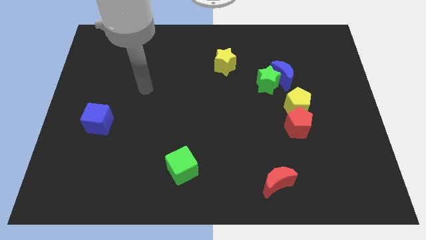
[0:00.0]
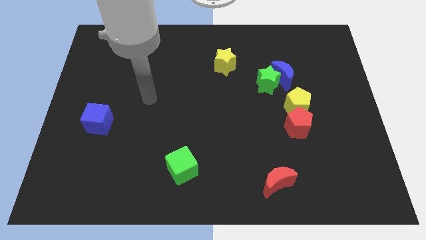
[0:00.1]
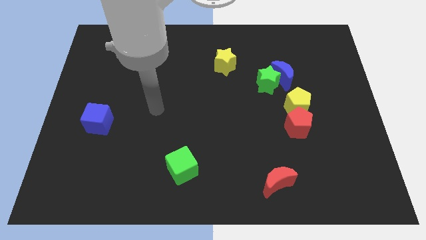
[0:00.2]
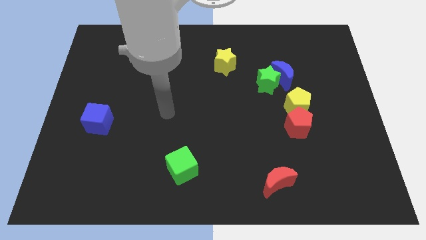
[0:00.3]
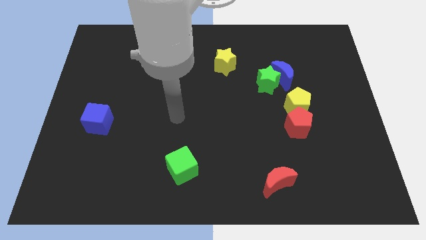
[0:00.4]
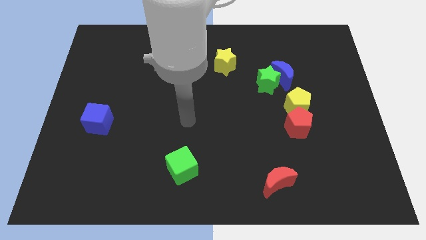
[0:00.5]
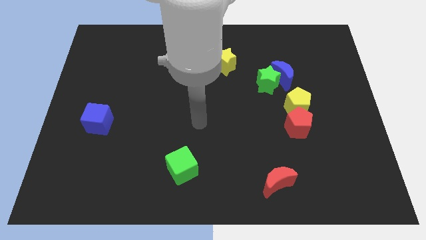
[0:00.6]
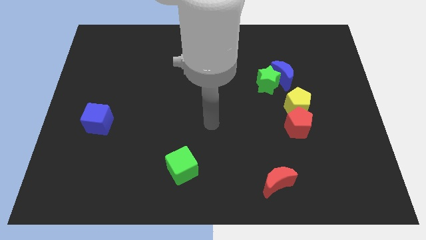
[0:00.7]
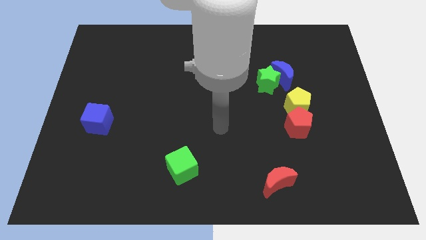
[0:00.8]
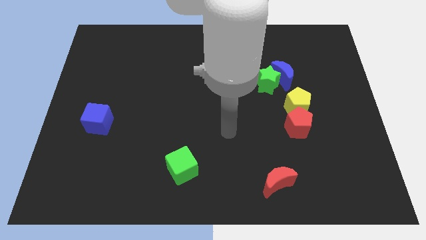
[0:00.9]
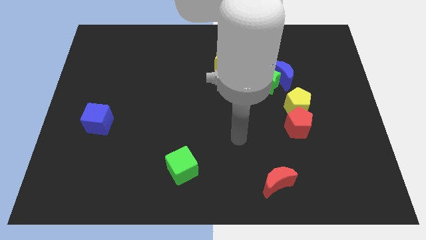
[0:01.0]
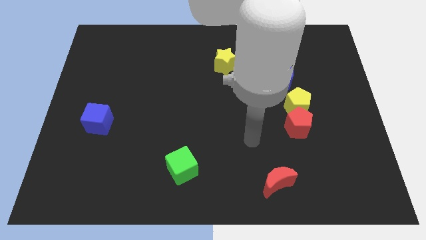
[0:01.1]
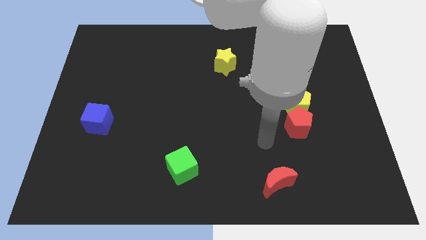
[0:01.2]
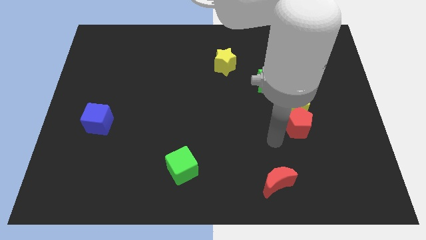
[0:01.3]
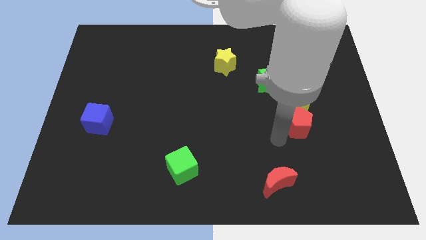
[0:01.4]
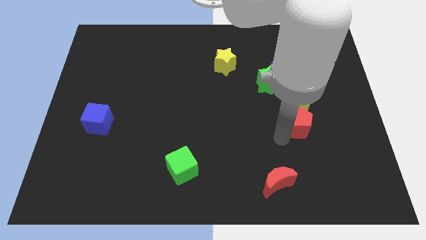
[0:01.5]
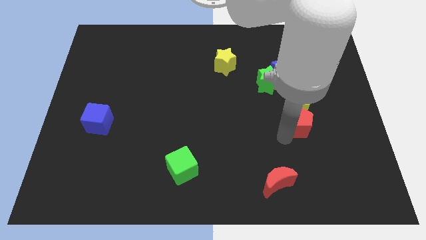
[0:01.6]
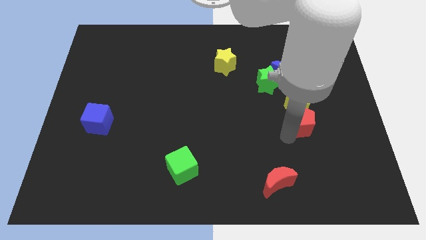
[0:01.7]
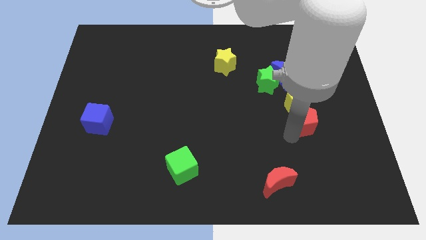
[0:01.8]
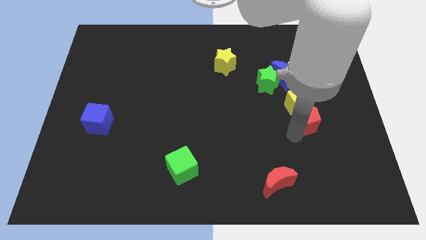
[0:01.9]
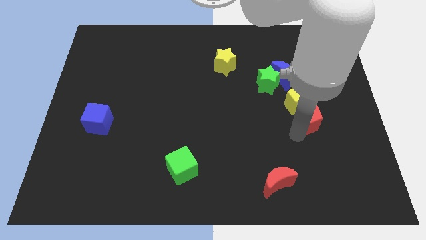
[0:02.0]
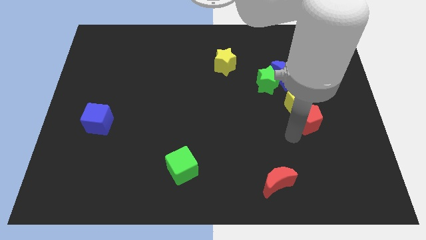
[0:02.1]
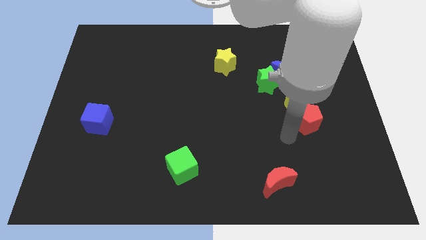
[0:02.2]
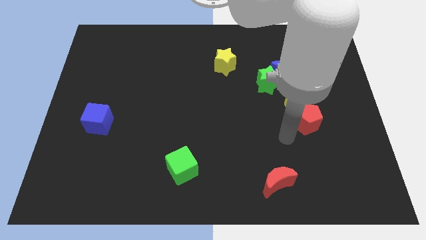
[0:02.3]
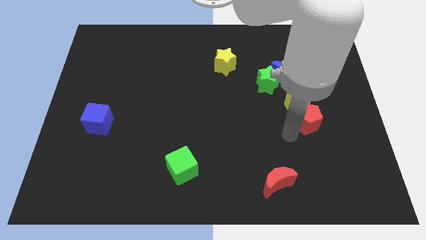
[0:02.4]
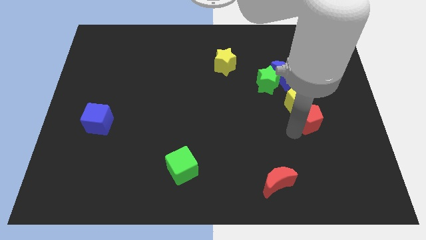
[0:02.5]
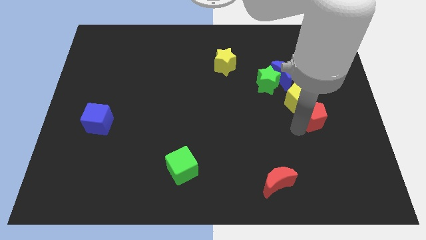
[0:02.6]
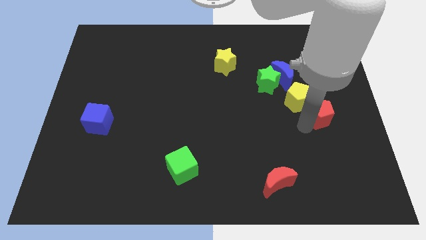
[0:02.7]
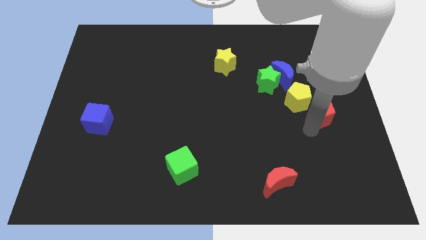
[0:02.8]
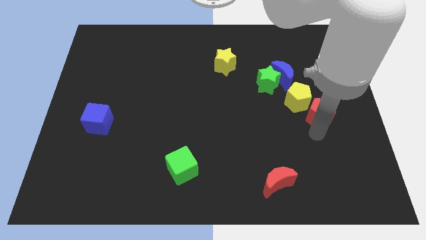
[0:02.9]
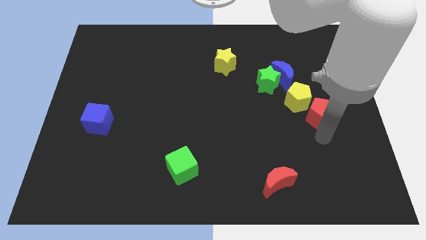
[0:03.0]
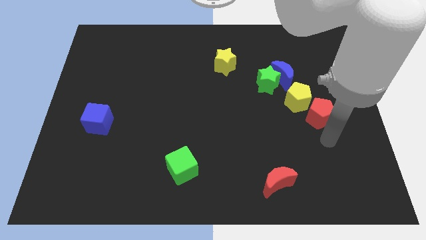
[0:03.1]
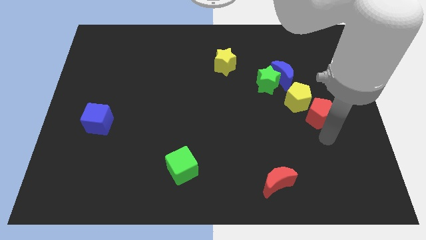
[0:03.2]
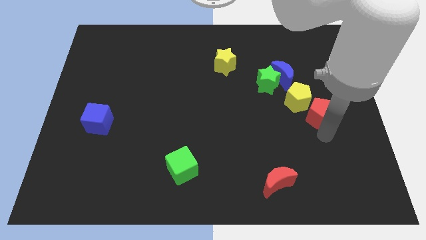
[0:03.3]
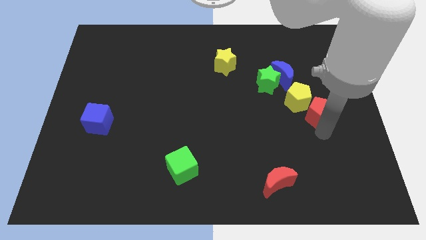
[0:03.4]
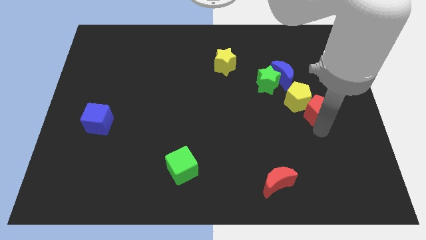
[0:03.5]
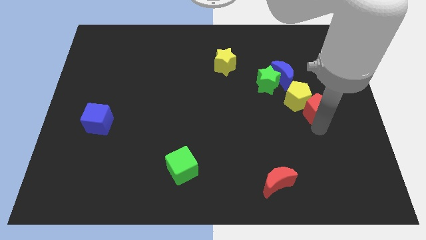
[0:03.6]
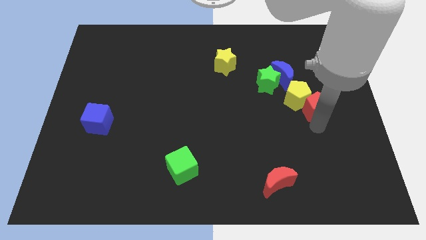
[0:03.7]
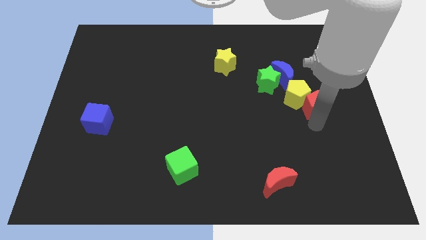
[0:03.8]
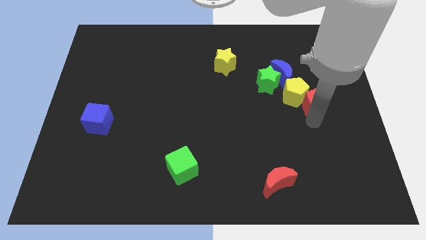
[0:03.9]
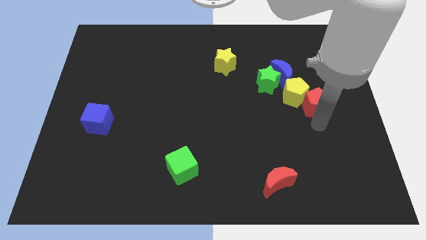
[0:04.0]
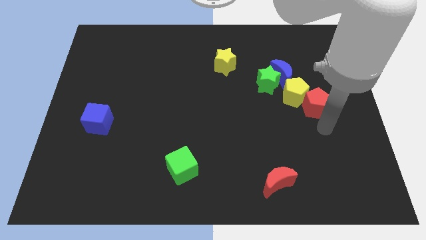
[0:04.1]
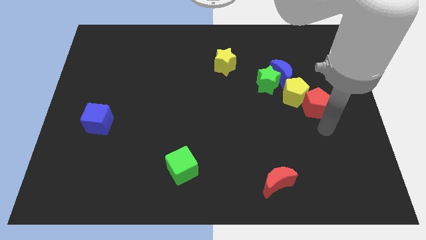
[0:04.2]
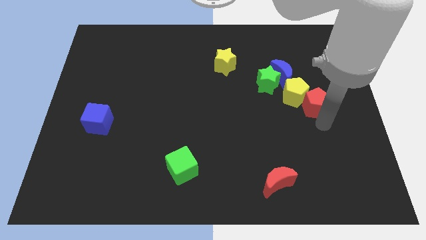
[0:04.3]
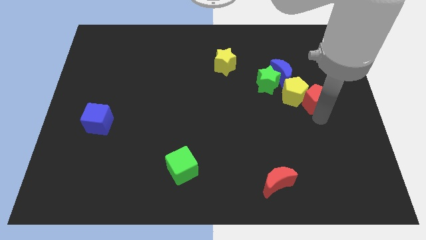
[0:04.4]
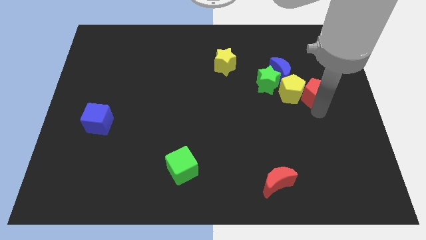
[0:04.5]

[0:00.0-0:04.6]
move the red pentagon slightly up

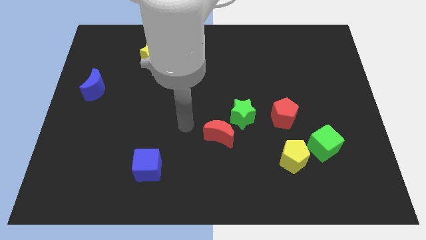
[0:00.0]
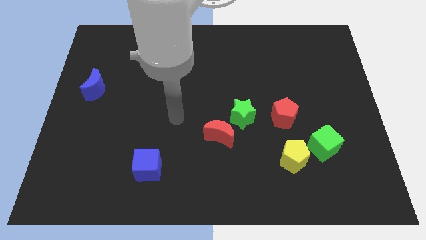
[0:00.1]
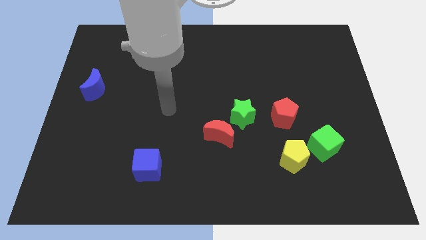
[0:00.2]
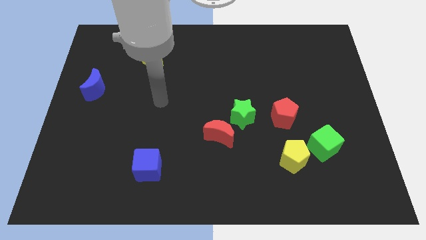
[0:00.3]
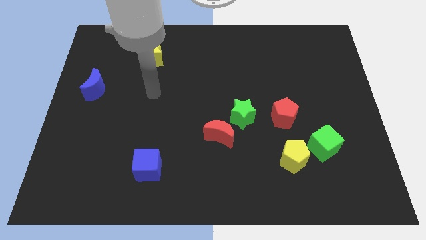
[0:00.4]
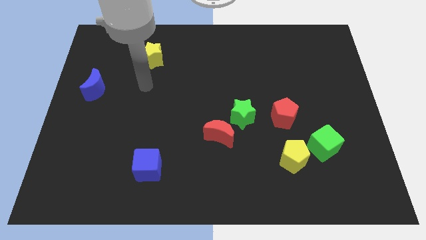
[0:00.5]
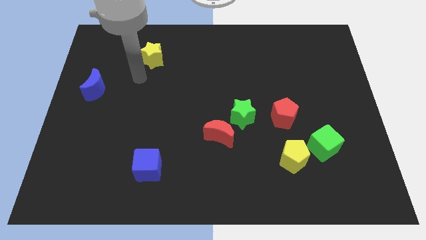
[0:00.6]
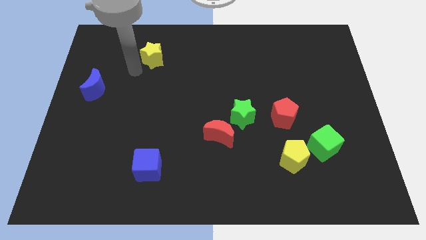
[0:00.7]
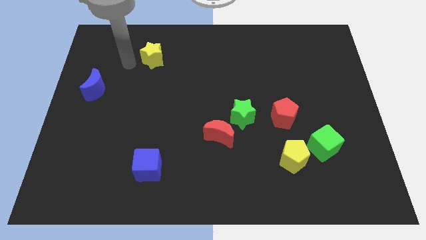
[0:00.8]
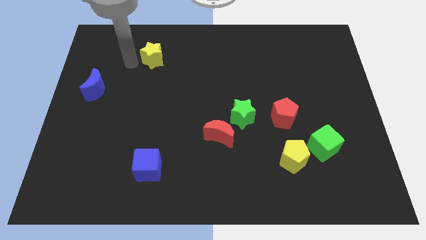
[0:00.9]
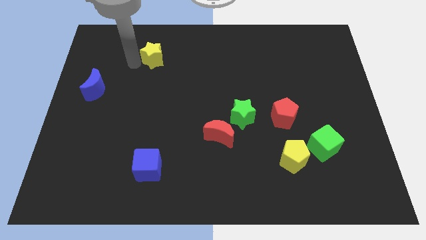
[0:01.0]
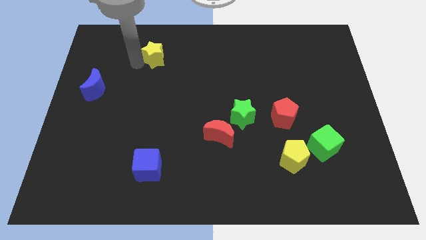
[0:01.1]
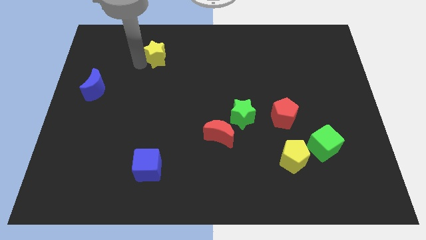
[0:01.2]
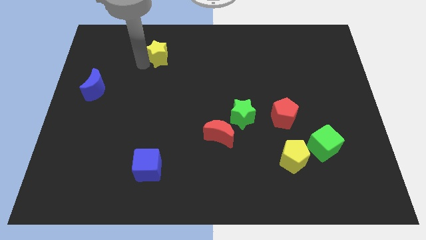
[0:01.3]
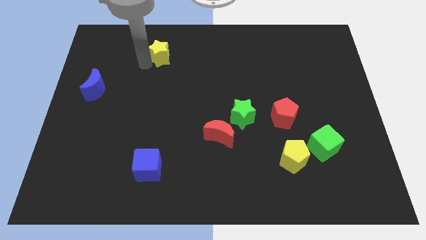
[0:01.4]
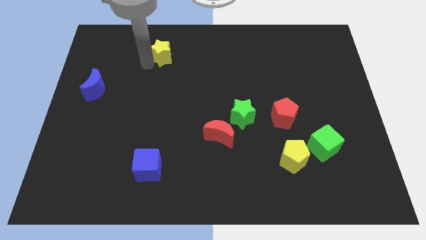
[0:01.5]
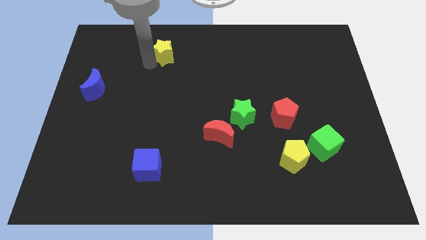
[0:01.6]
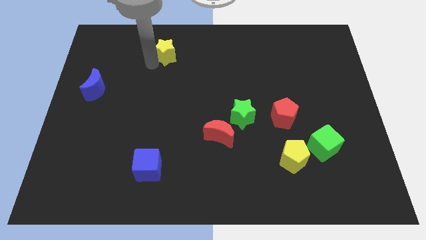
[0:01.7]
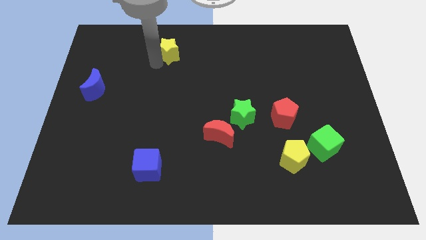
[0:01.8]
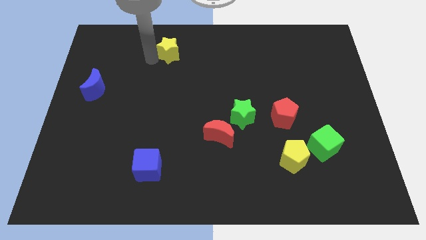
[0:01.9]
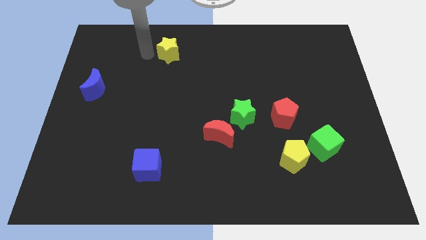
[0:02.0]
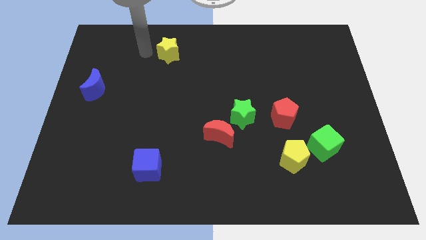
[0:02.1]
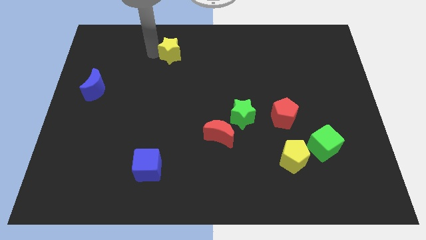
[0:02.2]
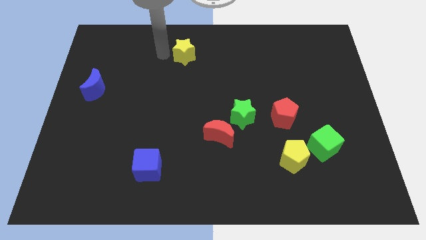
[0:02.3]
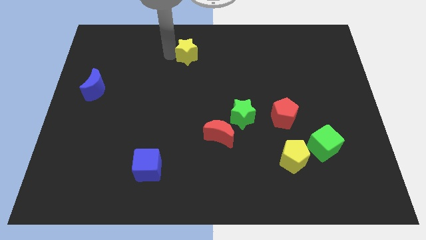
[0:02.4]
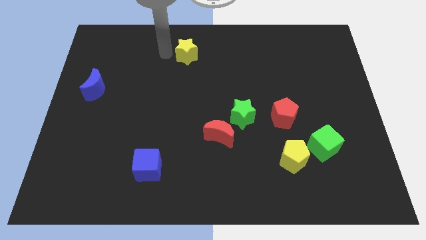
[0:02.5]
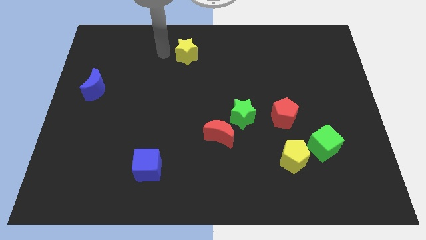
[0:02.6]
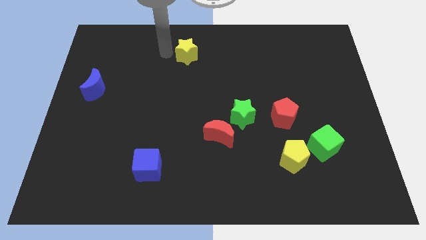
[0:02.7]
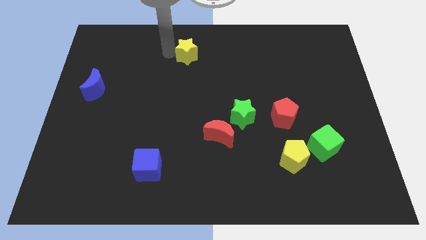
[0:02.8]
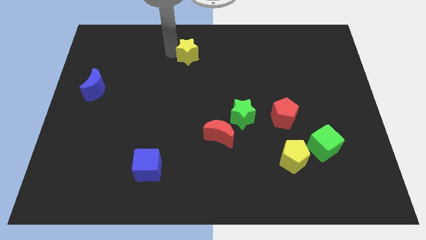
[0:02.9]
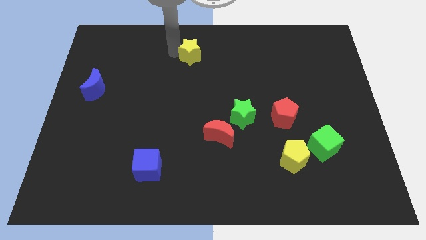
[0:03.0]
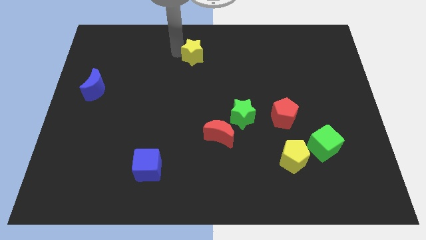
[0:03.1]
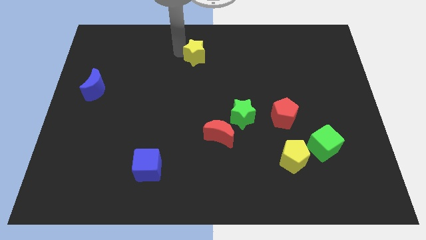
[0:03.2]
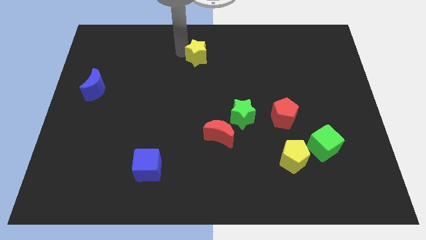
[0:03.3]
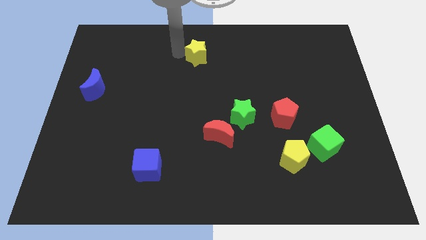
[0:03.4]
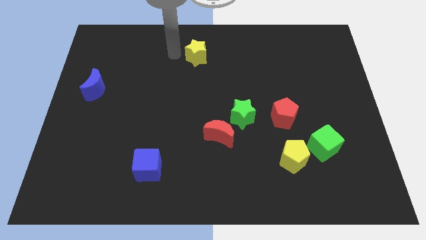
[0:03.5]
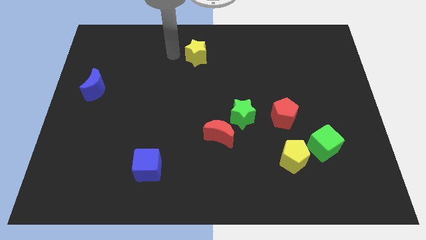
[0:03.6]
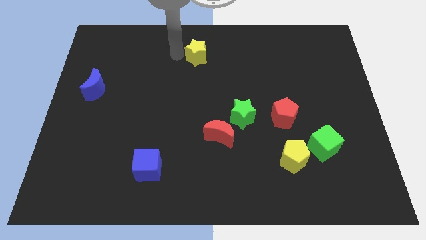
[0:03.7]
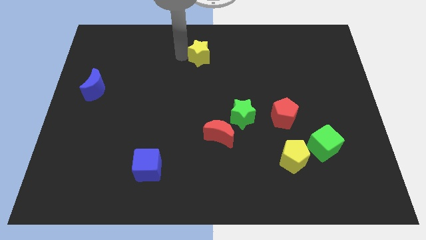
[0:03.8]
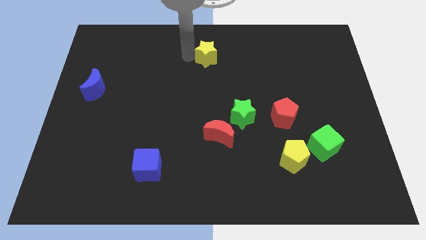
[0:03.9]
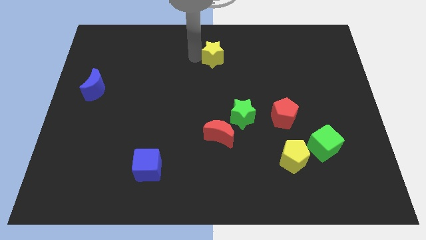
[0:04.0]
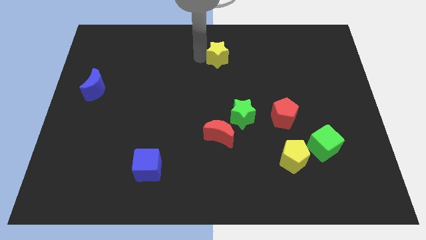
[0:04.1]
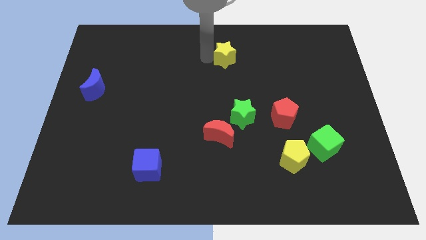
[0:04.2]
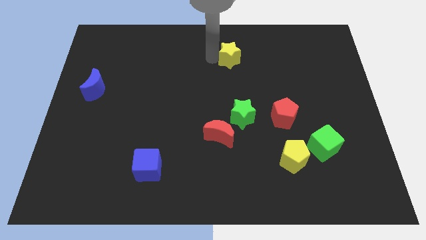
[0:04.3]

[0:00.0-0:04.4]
push the yellow star to the right
